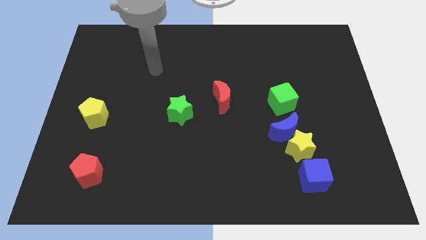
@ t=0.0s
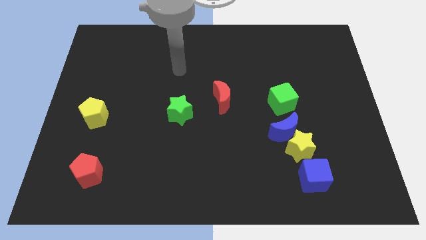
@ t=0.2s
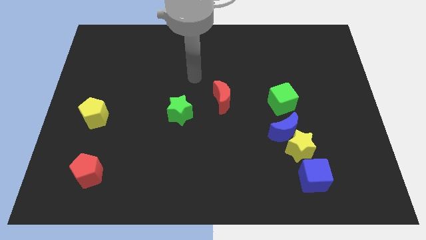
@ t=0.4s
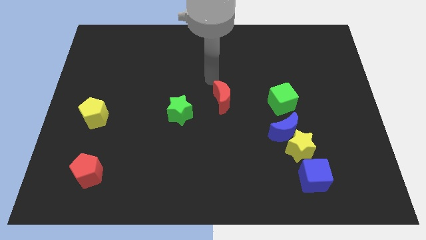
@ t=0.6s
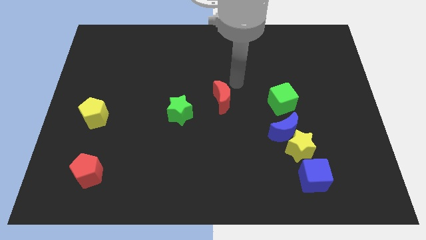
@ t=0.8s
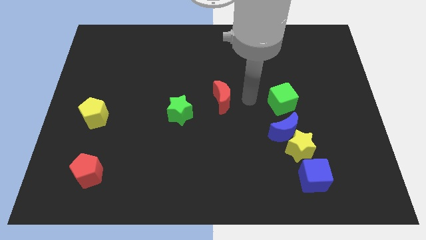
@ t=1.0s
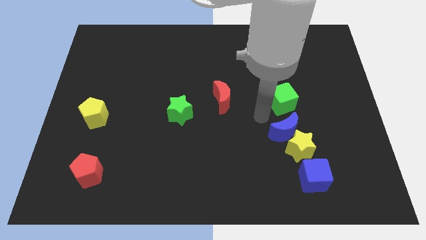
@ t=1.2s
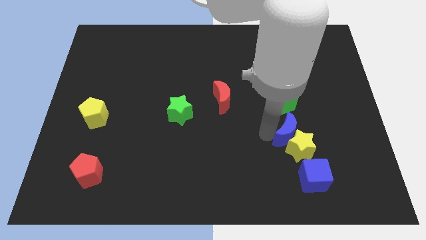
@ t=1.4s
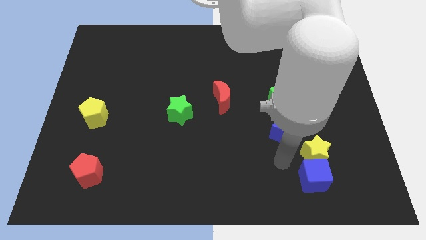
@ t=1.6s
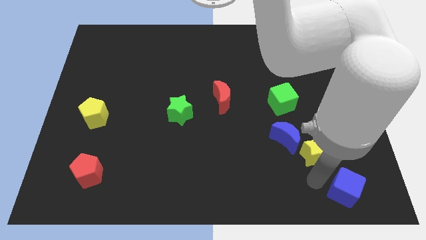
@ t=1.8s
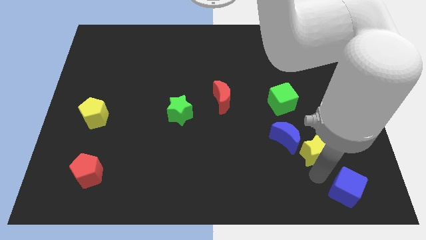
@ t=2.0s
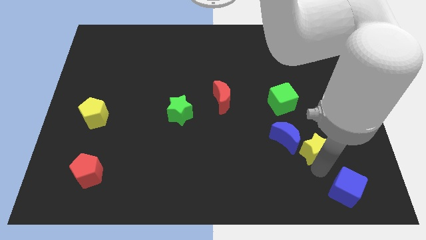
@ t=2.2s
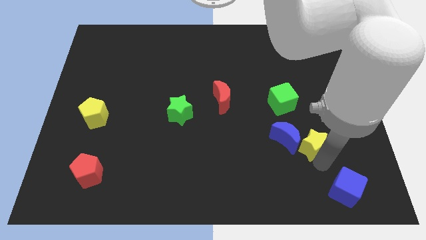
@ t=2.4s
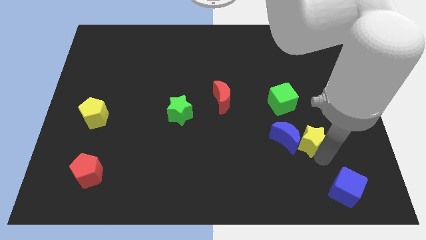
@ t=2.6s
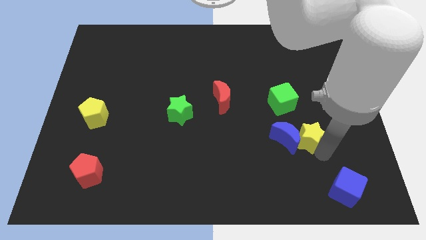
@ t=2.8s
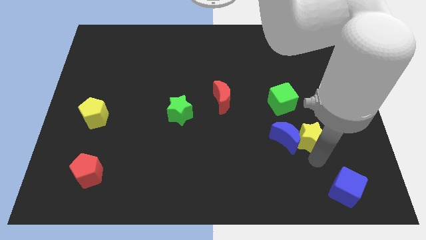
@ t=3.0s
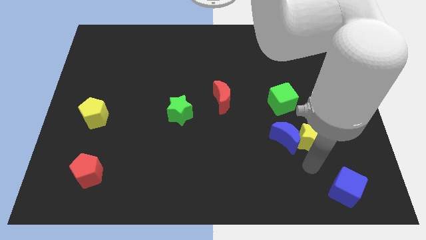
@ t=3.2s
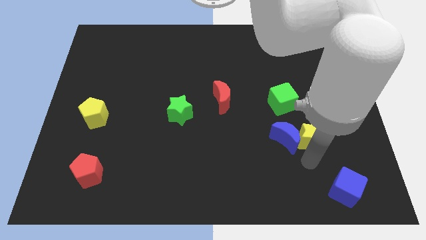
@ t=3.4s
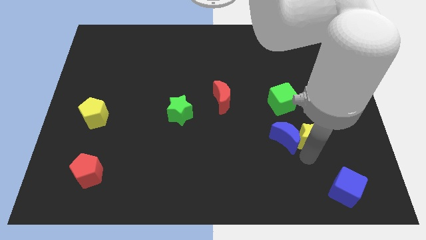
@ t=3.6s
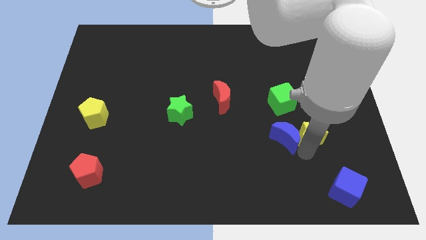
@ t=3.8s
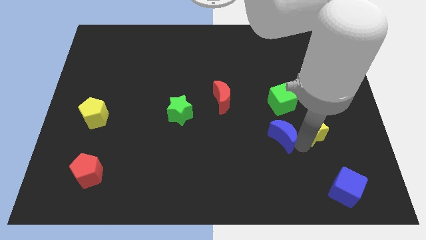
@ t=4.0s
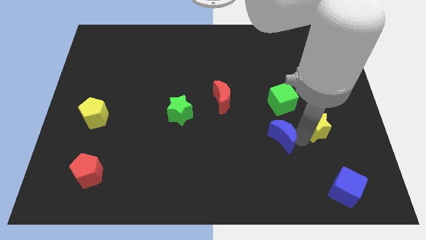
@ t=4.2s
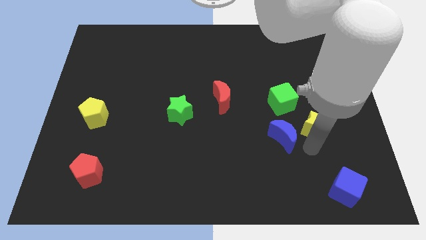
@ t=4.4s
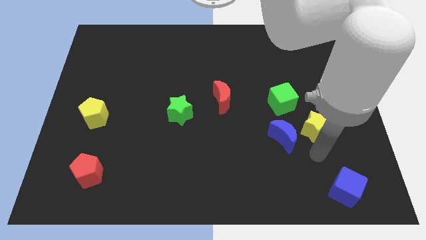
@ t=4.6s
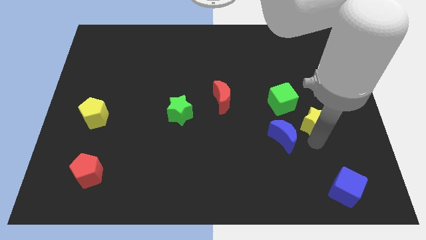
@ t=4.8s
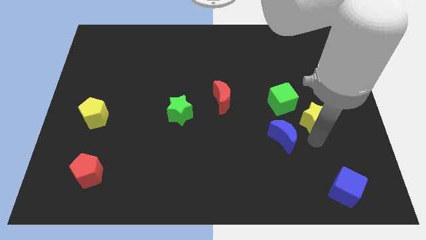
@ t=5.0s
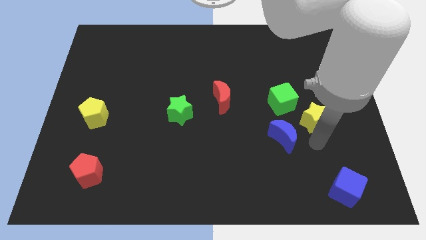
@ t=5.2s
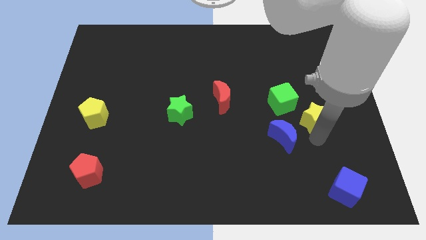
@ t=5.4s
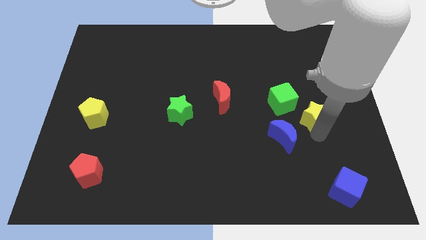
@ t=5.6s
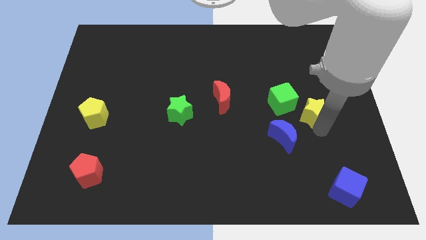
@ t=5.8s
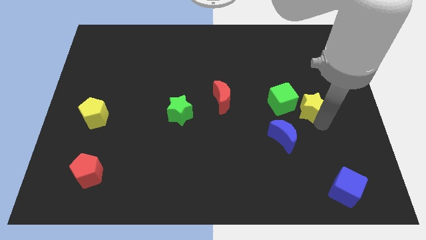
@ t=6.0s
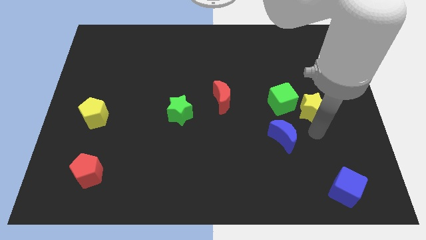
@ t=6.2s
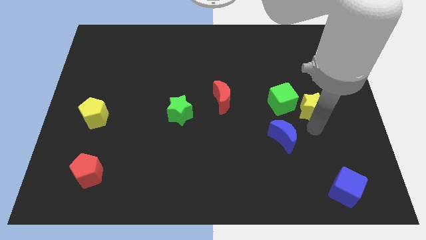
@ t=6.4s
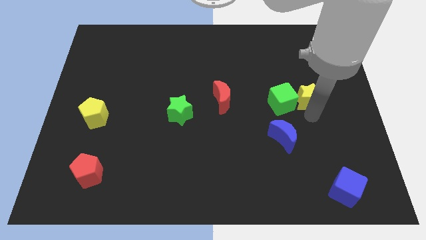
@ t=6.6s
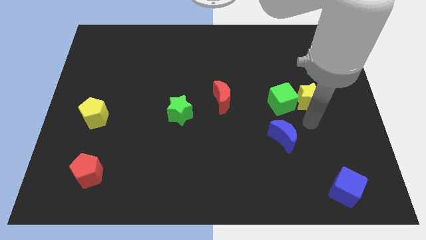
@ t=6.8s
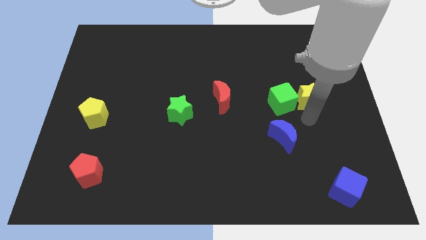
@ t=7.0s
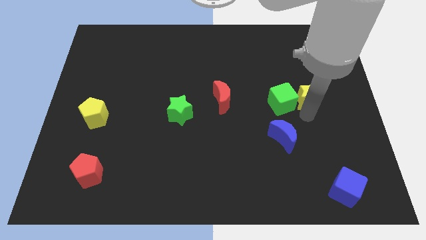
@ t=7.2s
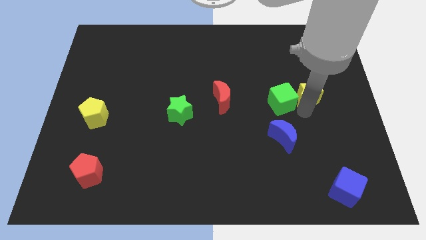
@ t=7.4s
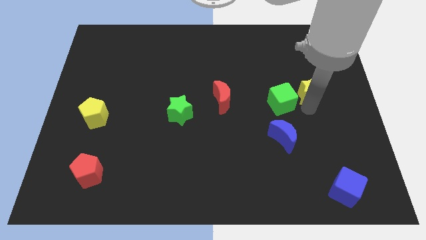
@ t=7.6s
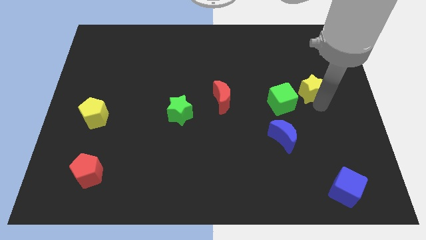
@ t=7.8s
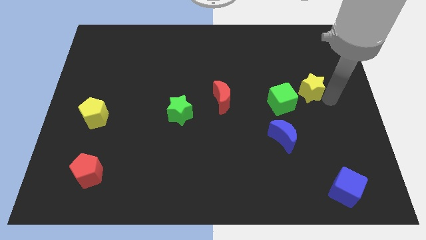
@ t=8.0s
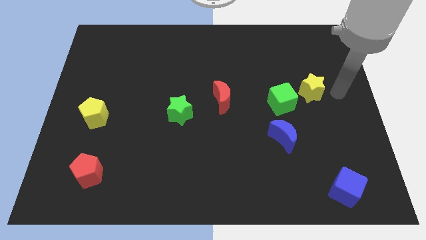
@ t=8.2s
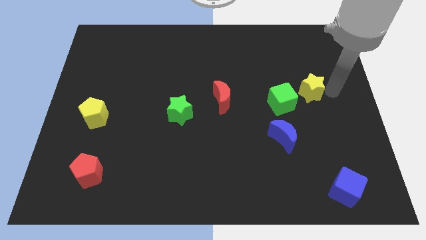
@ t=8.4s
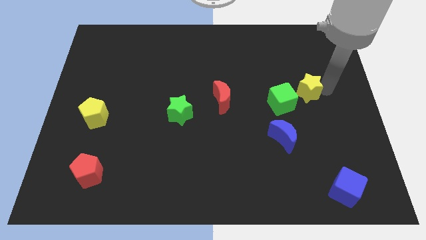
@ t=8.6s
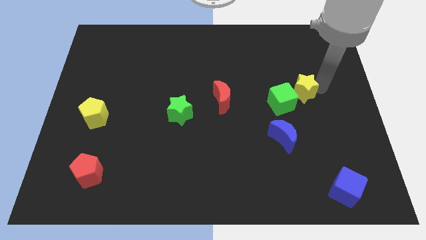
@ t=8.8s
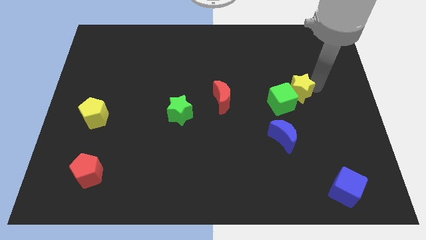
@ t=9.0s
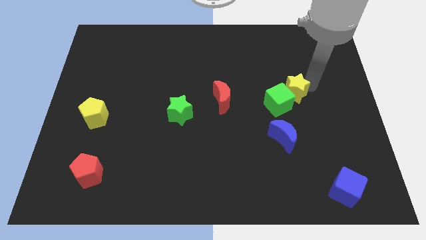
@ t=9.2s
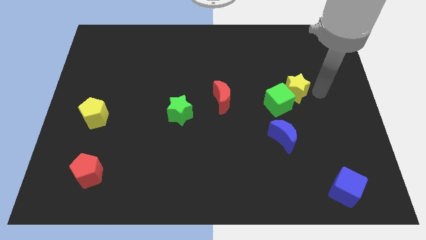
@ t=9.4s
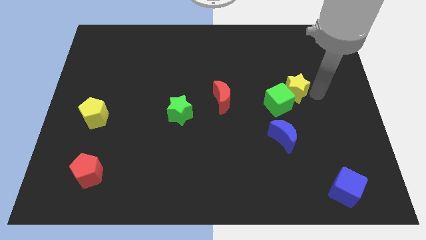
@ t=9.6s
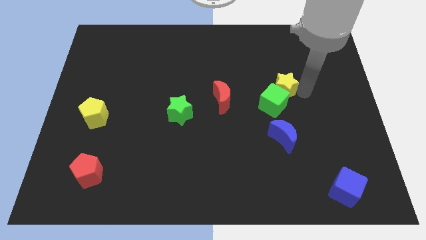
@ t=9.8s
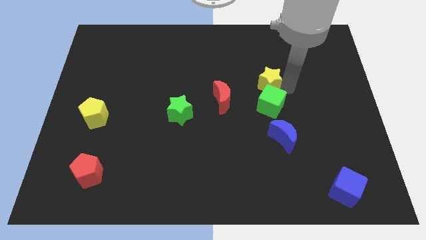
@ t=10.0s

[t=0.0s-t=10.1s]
move the yellow star to the top left side of the green cube

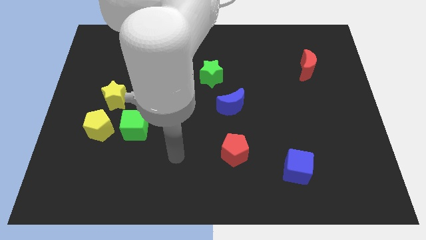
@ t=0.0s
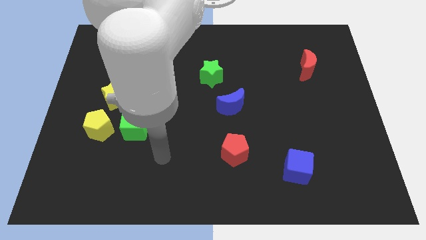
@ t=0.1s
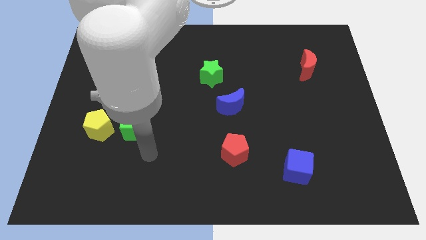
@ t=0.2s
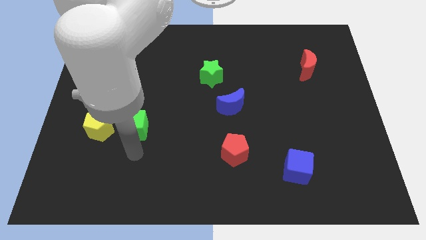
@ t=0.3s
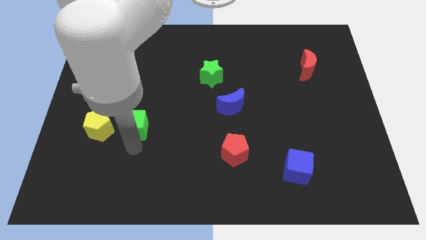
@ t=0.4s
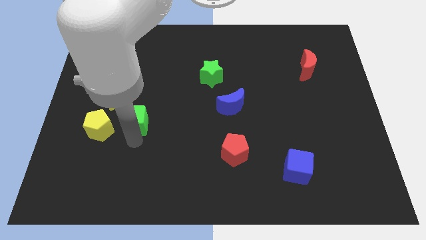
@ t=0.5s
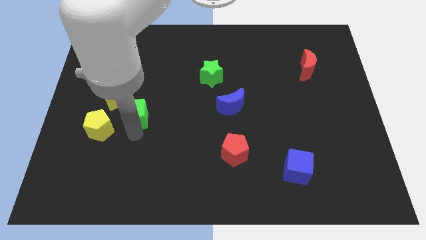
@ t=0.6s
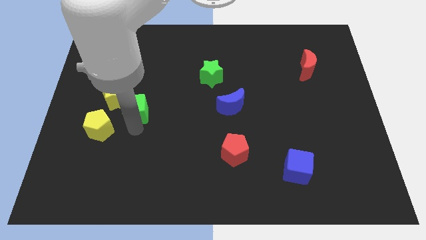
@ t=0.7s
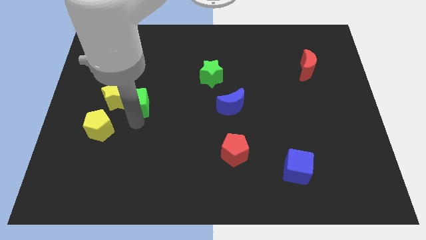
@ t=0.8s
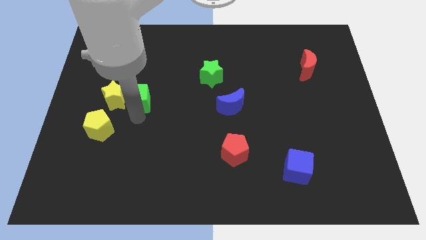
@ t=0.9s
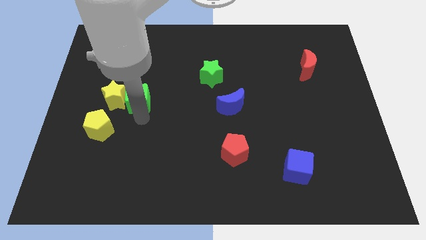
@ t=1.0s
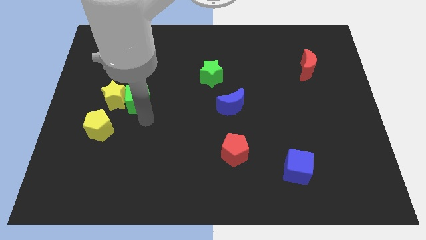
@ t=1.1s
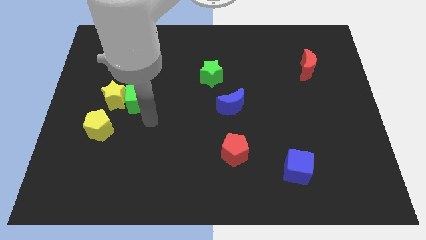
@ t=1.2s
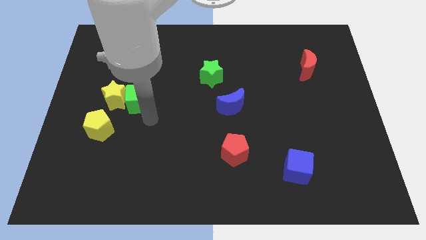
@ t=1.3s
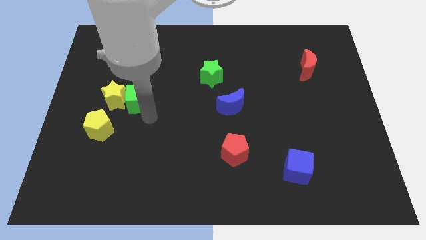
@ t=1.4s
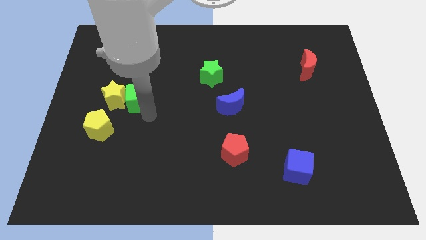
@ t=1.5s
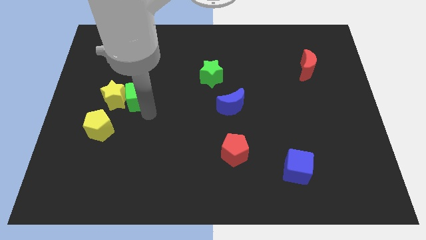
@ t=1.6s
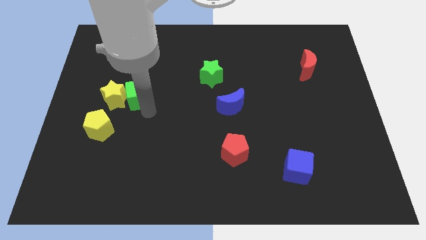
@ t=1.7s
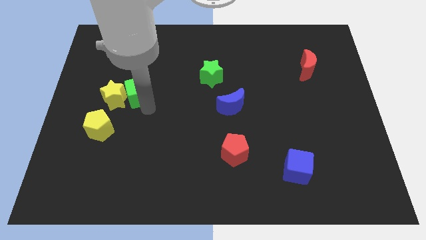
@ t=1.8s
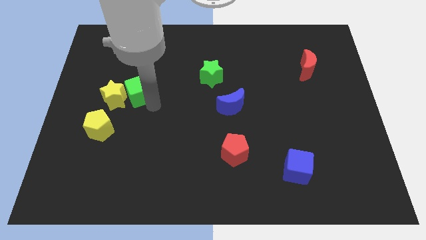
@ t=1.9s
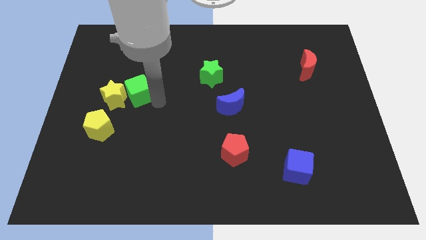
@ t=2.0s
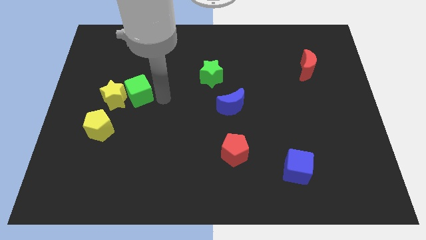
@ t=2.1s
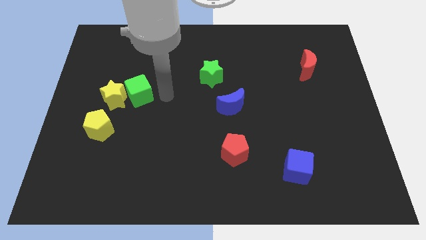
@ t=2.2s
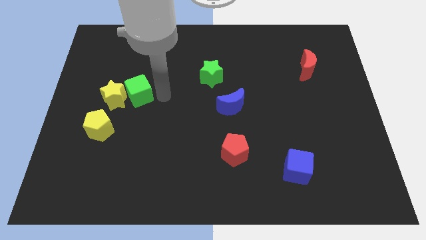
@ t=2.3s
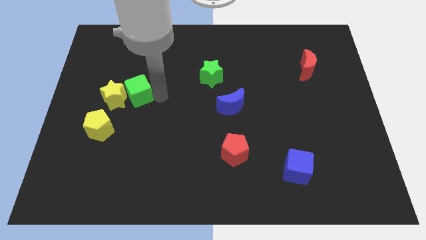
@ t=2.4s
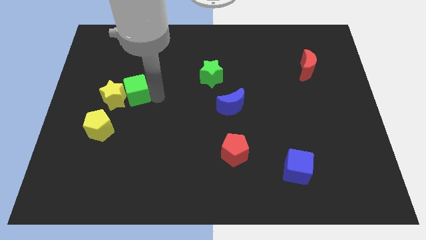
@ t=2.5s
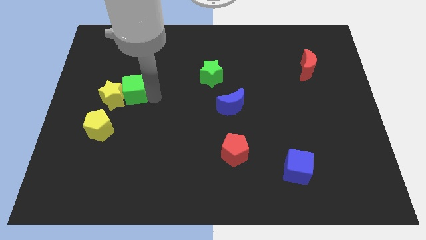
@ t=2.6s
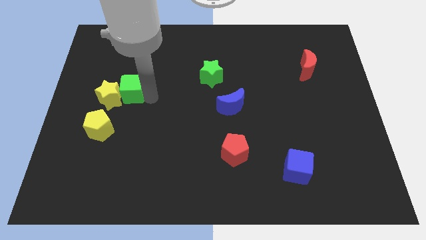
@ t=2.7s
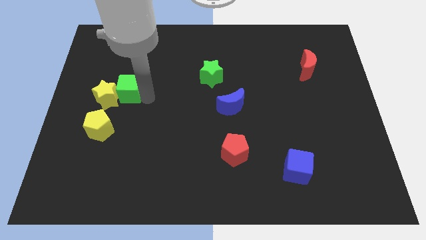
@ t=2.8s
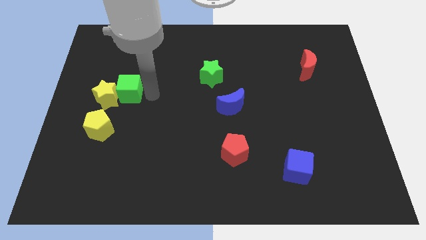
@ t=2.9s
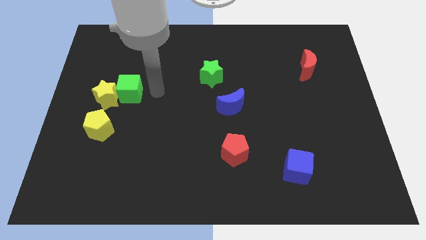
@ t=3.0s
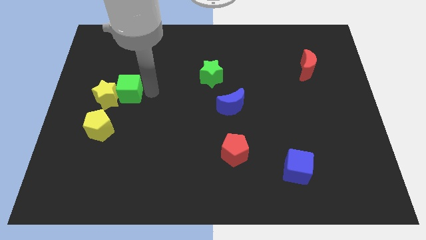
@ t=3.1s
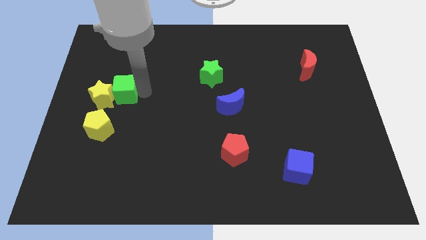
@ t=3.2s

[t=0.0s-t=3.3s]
move the green cube above the yellow pentagon
